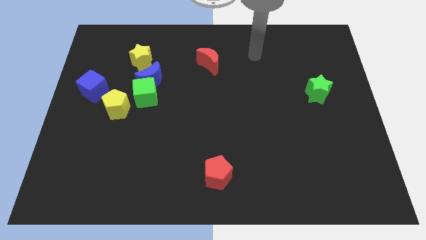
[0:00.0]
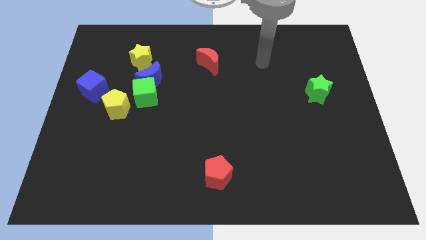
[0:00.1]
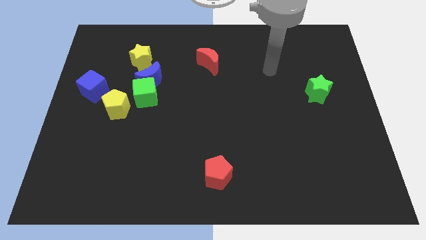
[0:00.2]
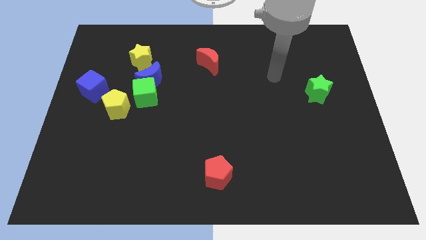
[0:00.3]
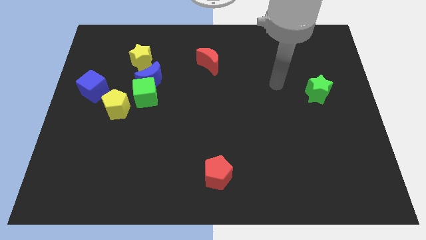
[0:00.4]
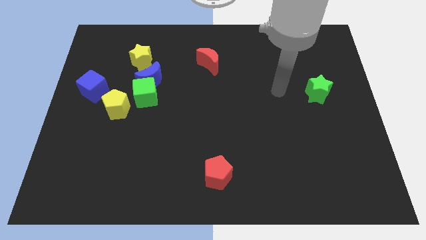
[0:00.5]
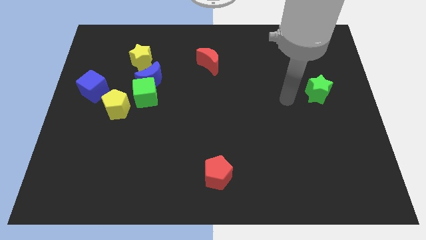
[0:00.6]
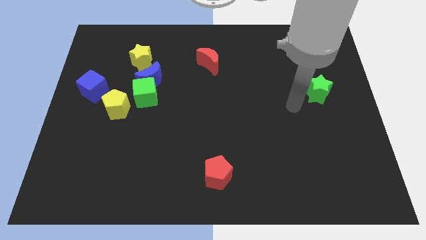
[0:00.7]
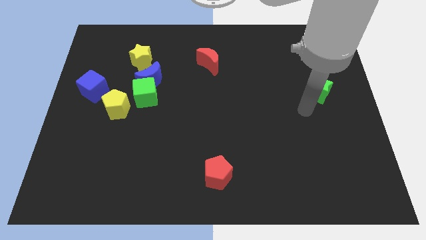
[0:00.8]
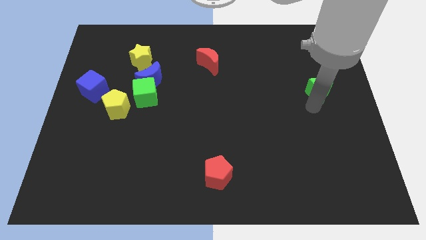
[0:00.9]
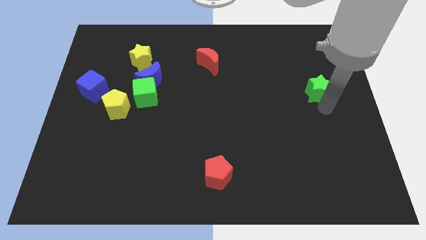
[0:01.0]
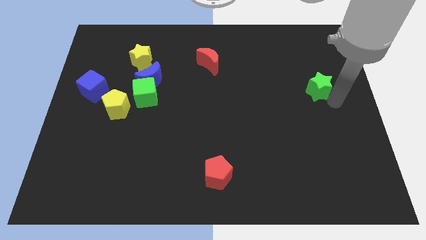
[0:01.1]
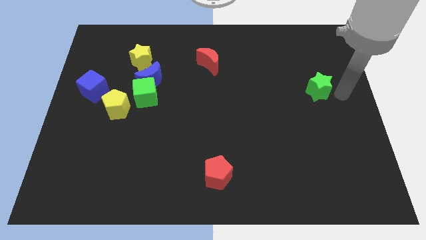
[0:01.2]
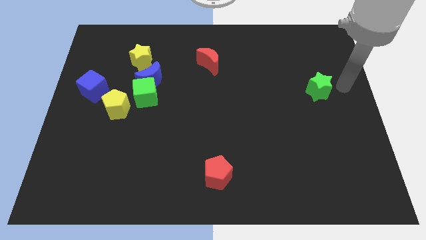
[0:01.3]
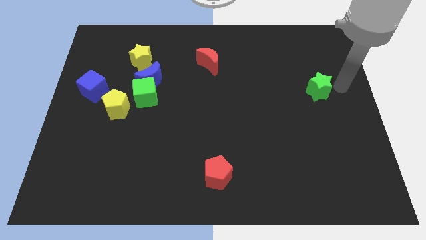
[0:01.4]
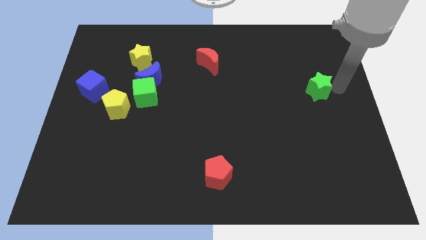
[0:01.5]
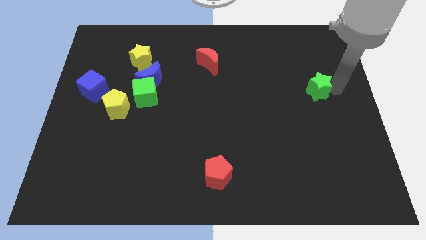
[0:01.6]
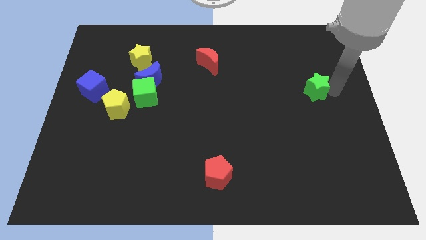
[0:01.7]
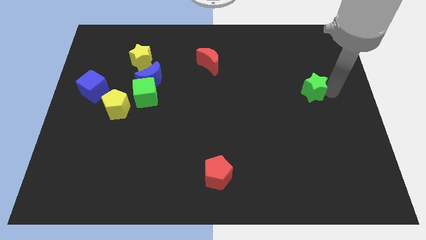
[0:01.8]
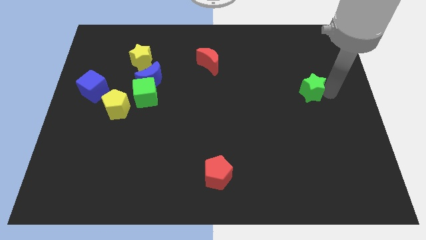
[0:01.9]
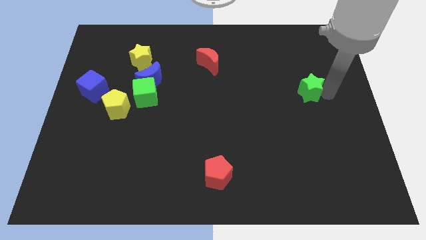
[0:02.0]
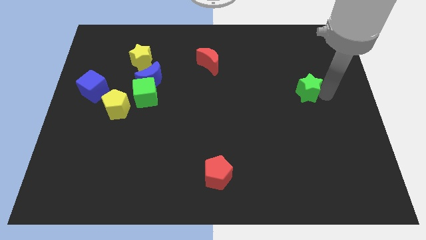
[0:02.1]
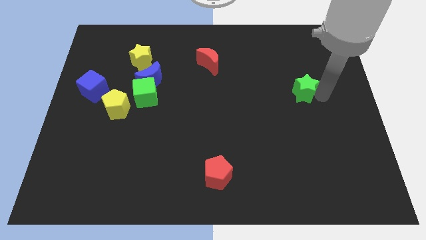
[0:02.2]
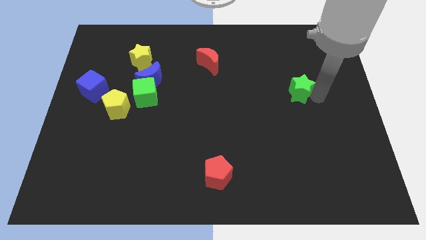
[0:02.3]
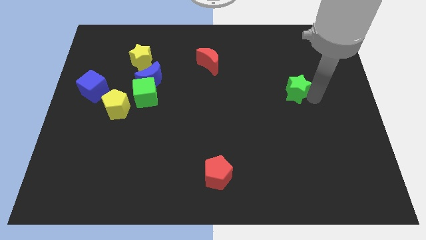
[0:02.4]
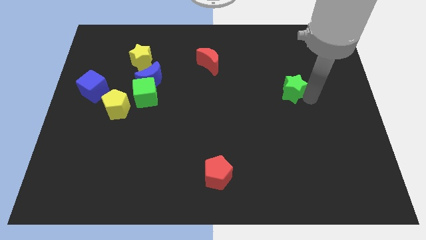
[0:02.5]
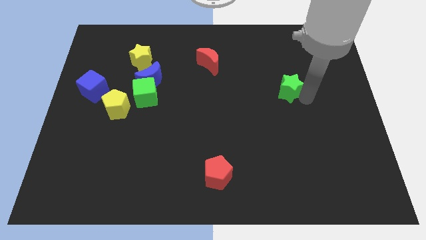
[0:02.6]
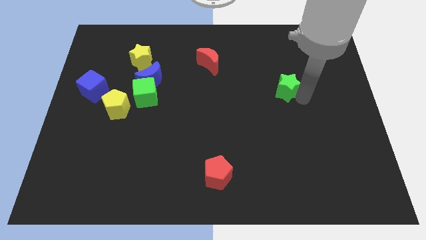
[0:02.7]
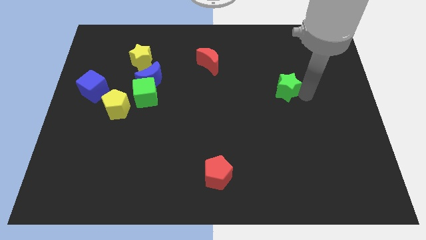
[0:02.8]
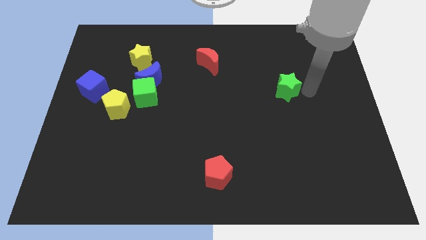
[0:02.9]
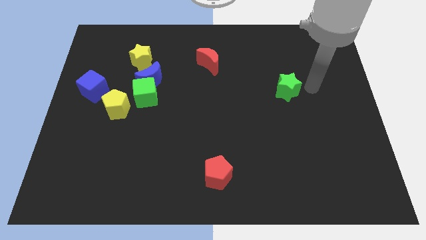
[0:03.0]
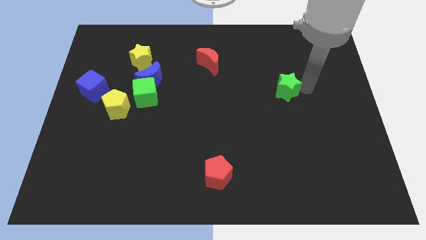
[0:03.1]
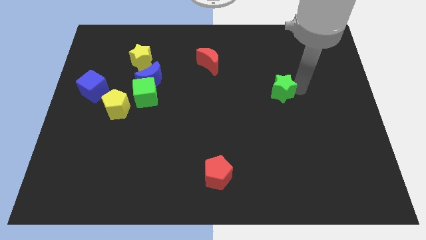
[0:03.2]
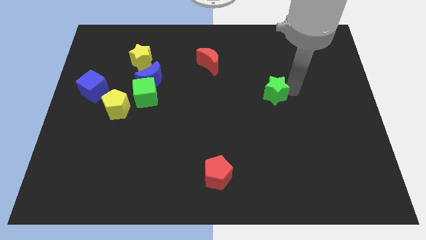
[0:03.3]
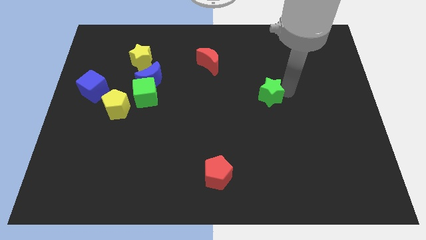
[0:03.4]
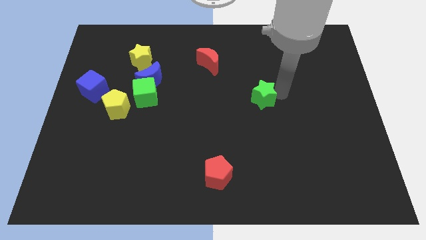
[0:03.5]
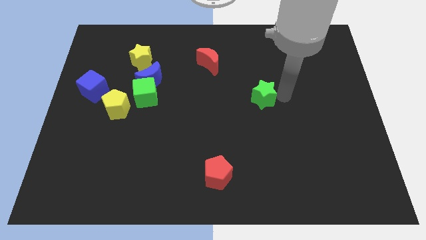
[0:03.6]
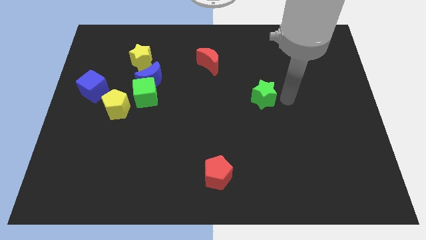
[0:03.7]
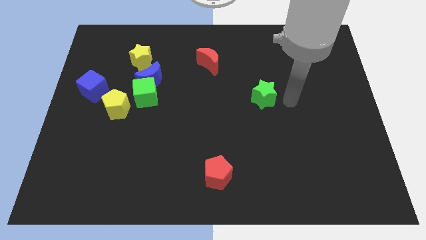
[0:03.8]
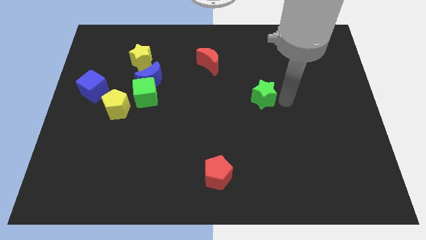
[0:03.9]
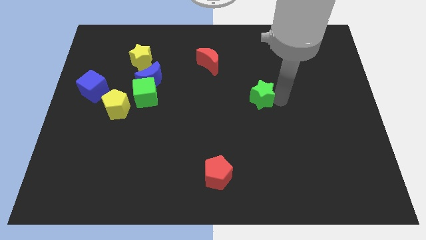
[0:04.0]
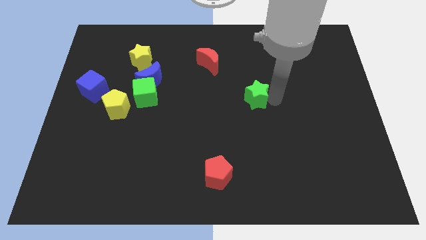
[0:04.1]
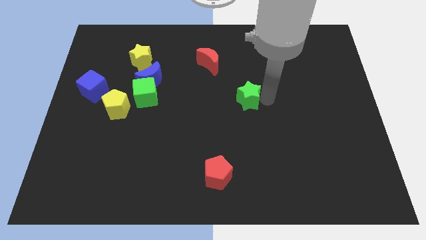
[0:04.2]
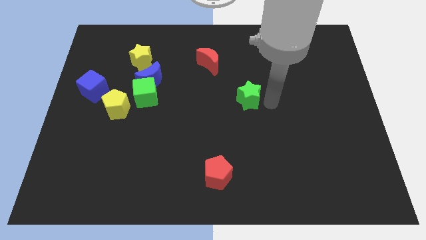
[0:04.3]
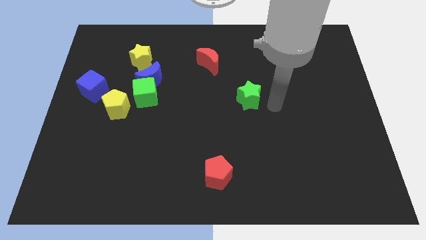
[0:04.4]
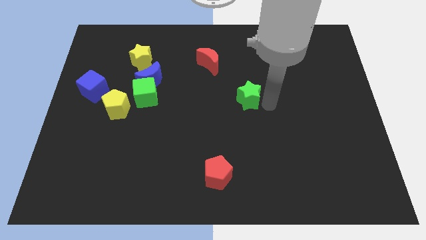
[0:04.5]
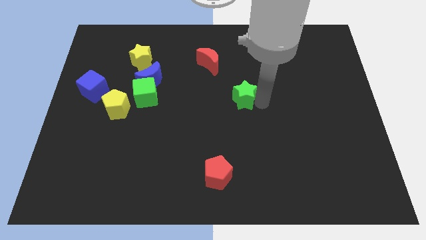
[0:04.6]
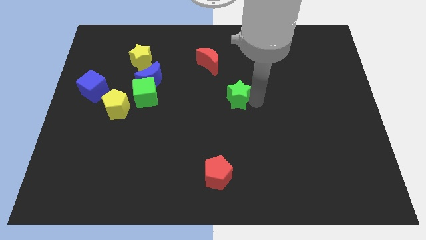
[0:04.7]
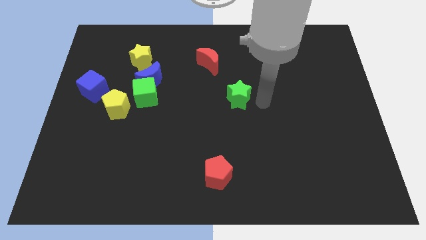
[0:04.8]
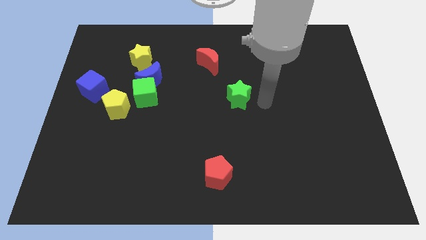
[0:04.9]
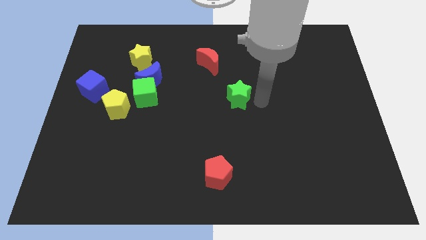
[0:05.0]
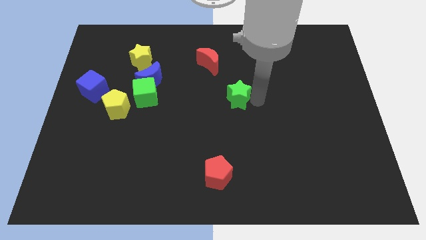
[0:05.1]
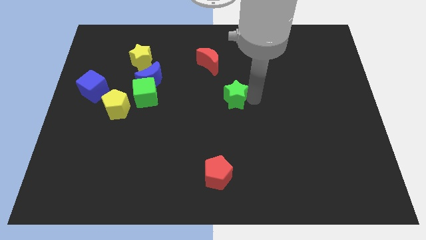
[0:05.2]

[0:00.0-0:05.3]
slide the green star left

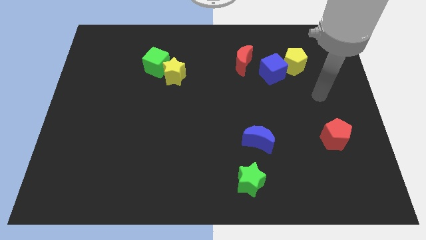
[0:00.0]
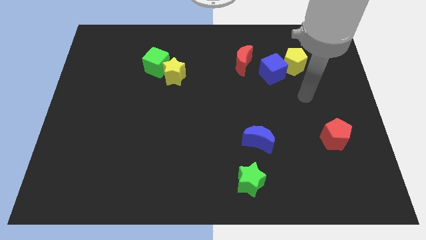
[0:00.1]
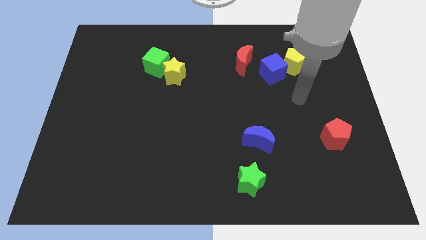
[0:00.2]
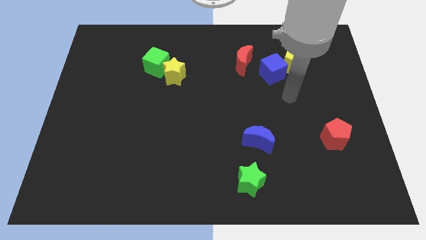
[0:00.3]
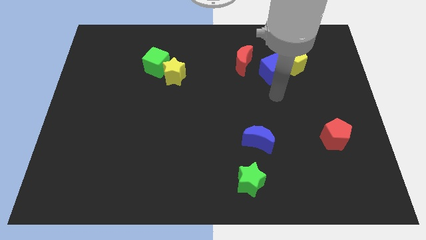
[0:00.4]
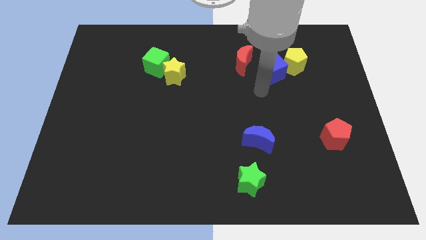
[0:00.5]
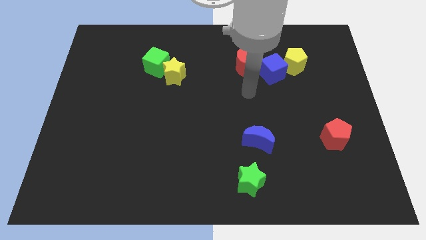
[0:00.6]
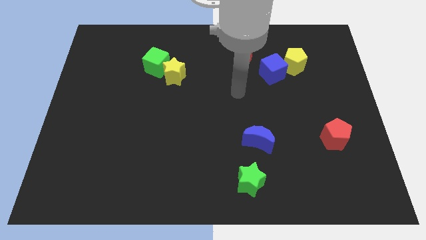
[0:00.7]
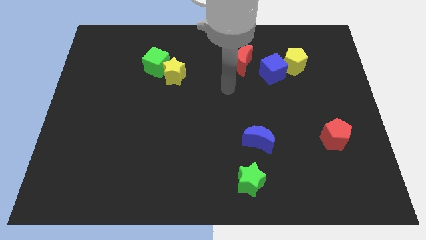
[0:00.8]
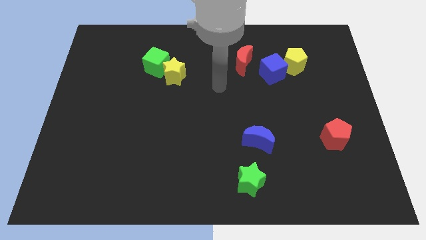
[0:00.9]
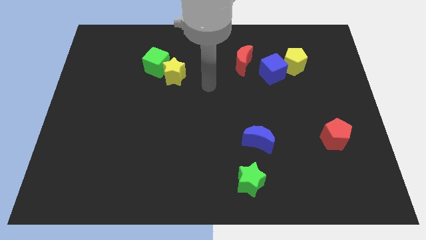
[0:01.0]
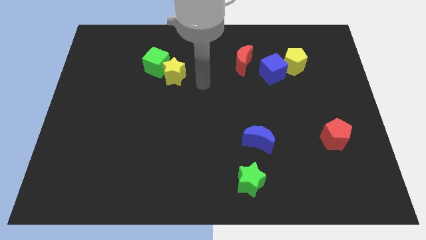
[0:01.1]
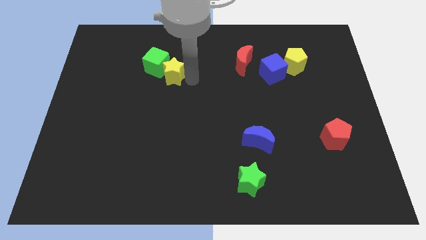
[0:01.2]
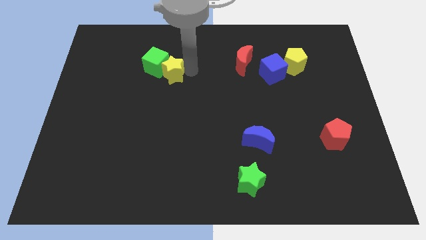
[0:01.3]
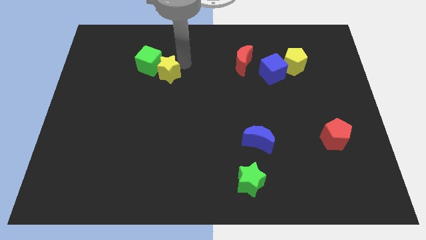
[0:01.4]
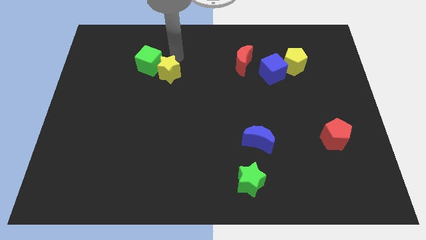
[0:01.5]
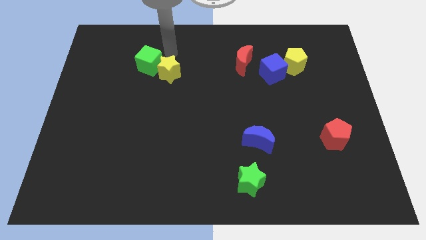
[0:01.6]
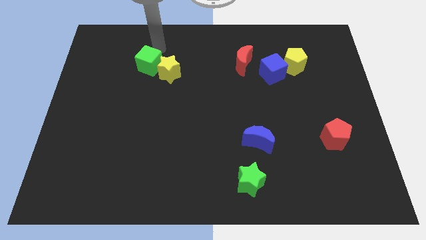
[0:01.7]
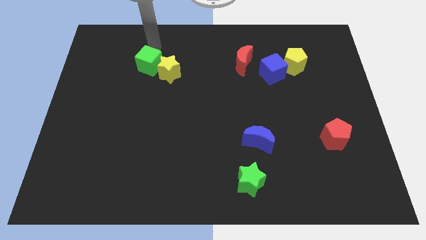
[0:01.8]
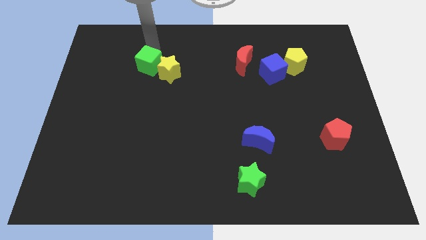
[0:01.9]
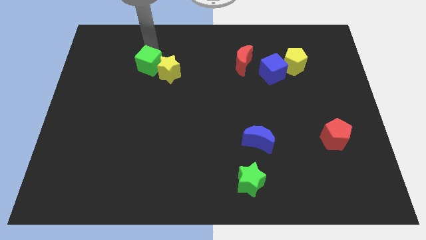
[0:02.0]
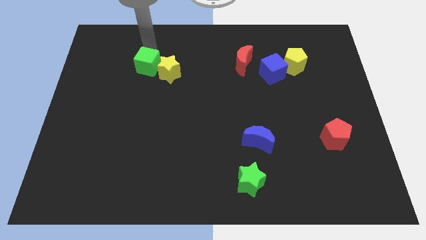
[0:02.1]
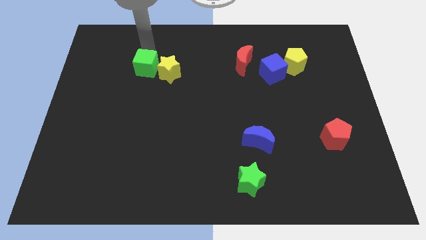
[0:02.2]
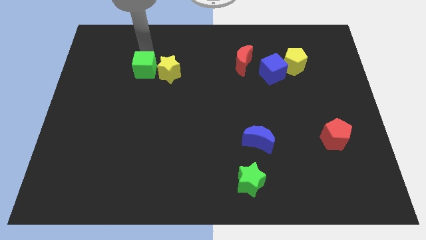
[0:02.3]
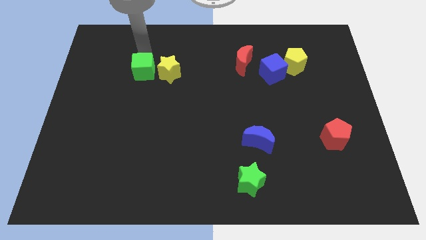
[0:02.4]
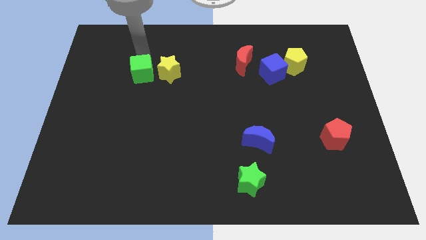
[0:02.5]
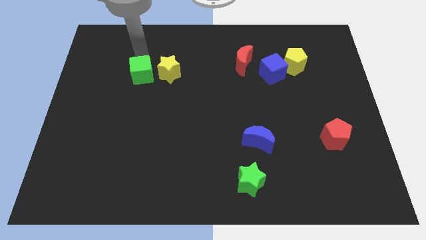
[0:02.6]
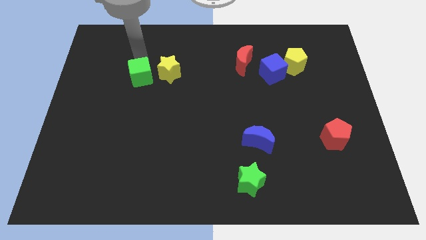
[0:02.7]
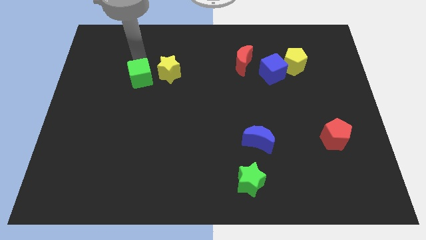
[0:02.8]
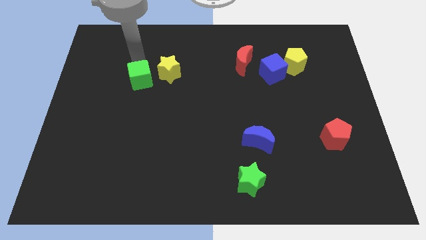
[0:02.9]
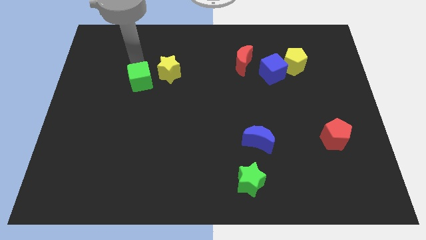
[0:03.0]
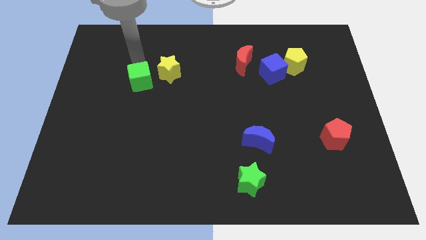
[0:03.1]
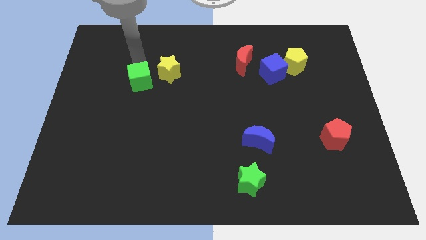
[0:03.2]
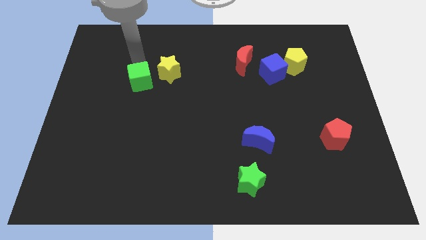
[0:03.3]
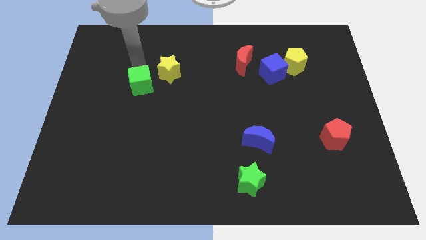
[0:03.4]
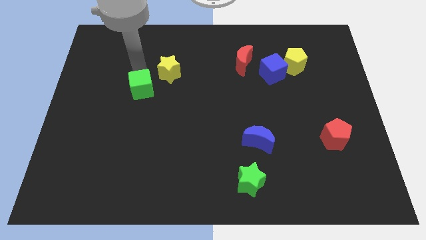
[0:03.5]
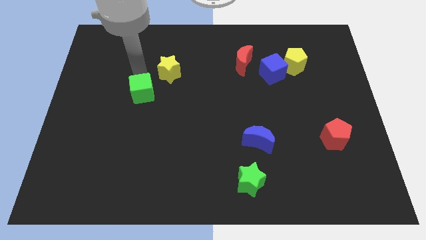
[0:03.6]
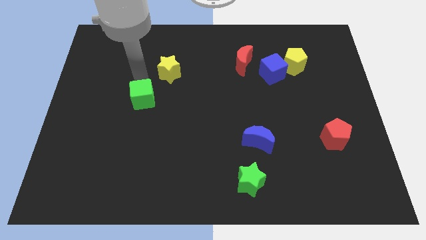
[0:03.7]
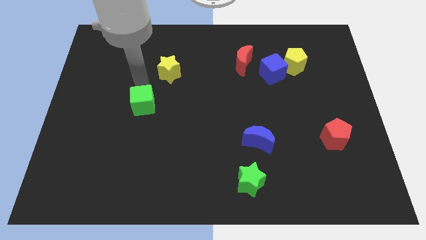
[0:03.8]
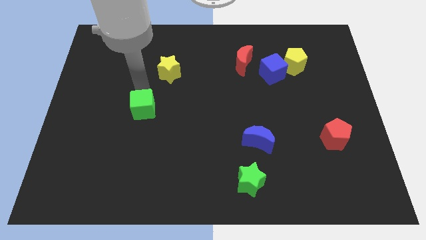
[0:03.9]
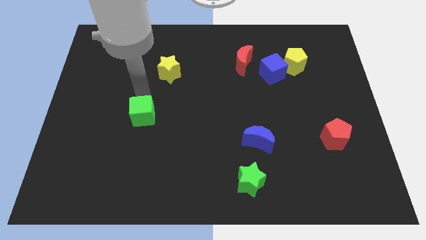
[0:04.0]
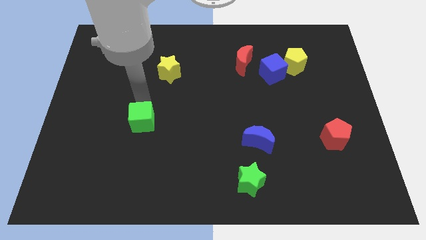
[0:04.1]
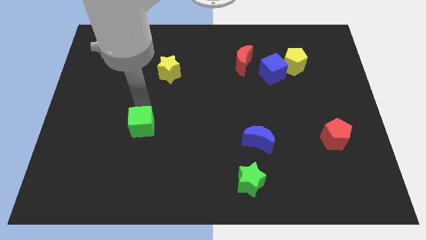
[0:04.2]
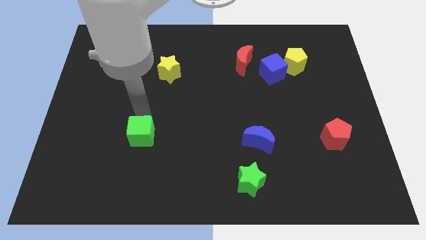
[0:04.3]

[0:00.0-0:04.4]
move the green cube downwards
